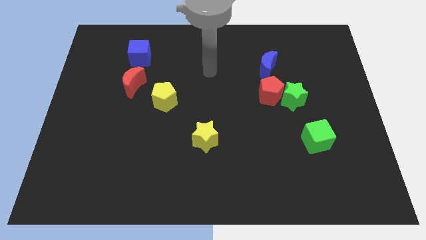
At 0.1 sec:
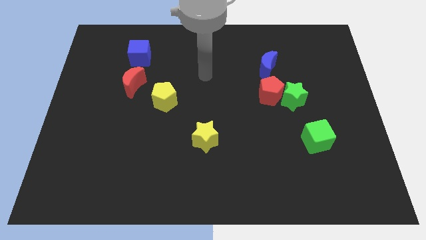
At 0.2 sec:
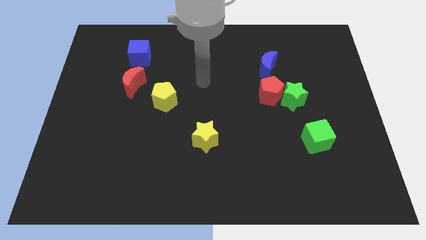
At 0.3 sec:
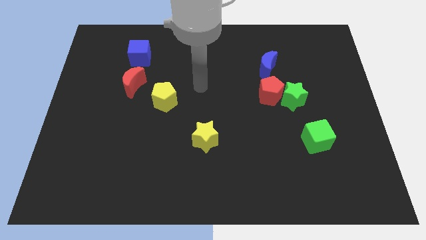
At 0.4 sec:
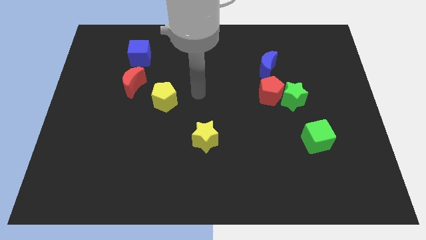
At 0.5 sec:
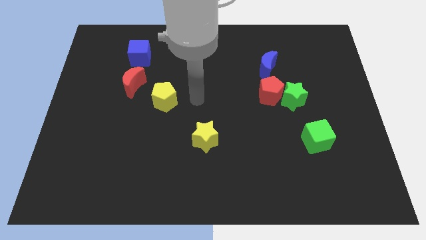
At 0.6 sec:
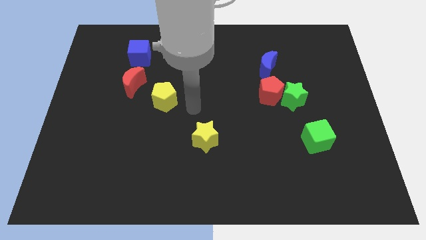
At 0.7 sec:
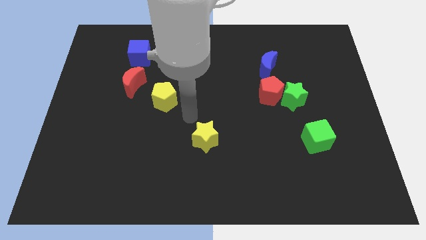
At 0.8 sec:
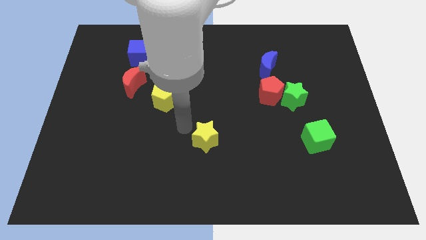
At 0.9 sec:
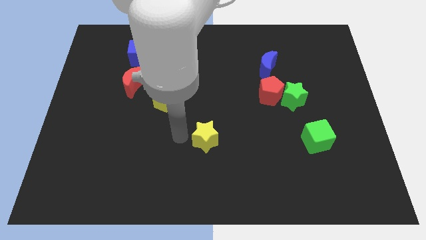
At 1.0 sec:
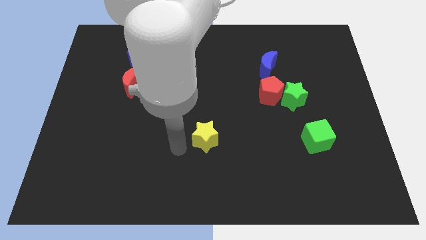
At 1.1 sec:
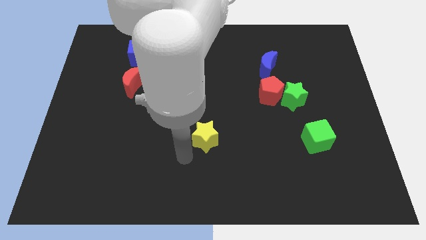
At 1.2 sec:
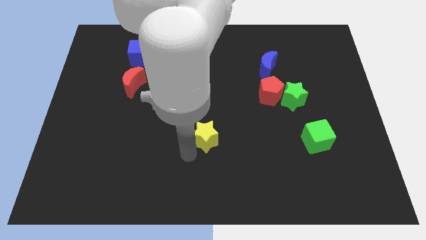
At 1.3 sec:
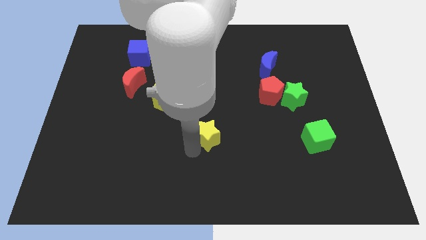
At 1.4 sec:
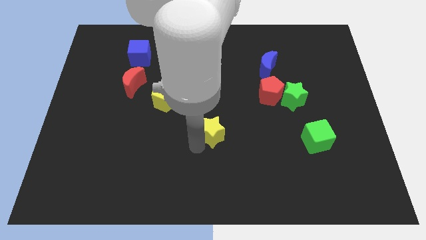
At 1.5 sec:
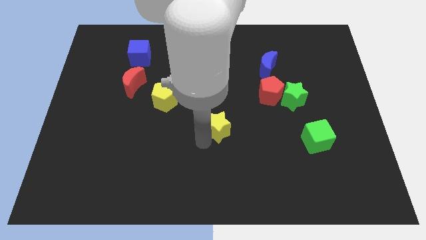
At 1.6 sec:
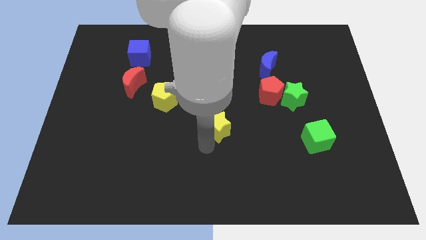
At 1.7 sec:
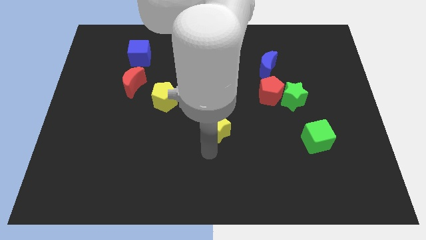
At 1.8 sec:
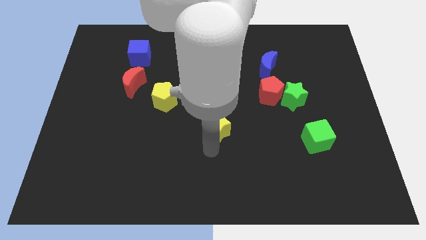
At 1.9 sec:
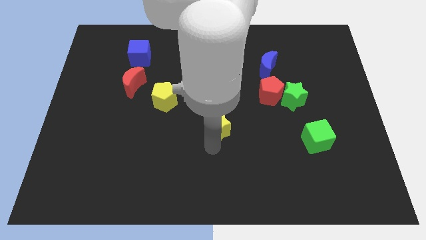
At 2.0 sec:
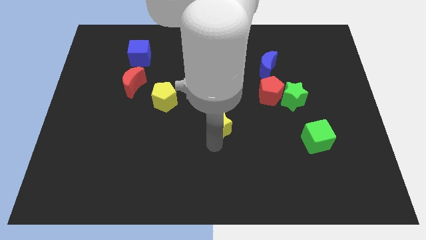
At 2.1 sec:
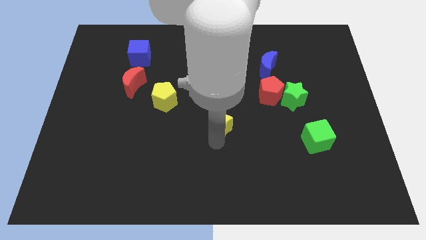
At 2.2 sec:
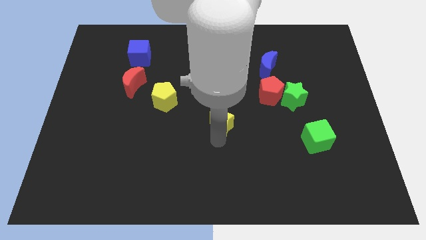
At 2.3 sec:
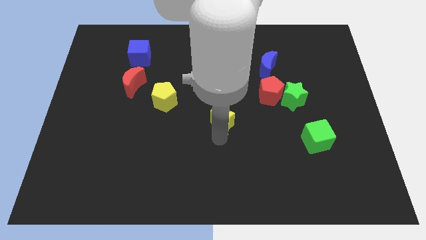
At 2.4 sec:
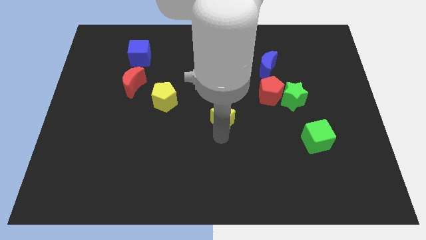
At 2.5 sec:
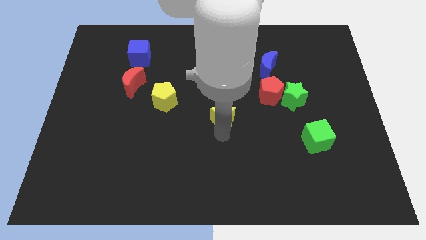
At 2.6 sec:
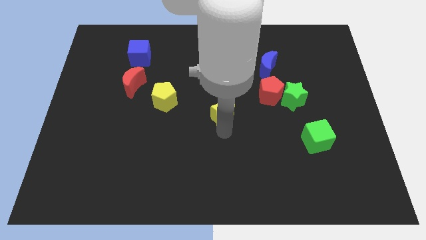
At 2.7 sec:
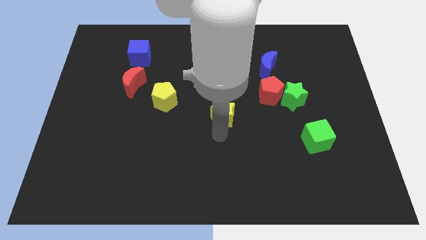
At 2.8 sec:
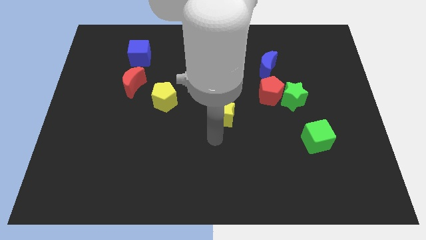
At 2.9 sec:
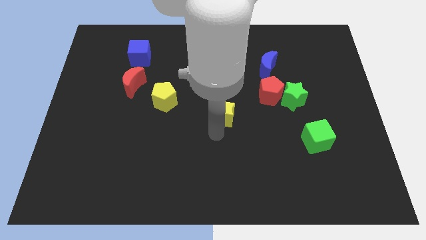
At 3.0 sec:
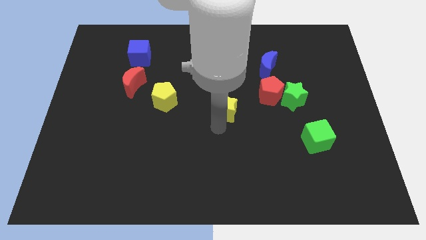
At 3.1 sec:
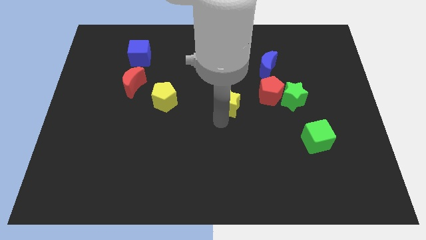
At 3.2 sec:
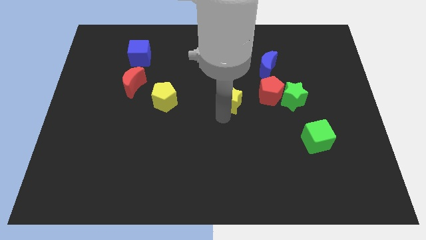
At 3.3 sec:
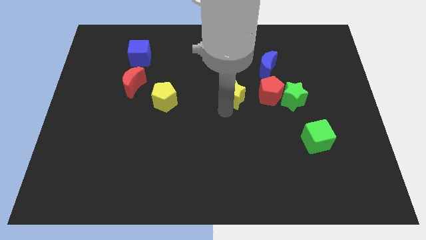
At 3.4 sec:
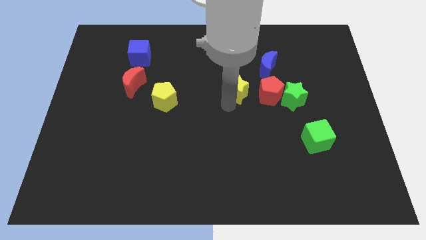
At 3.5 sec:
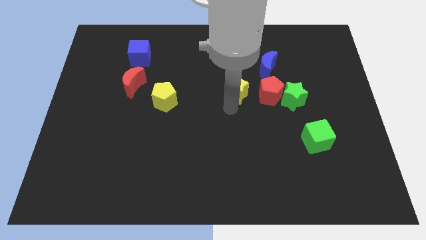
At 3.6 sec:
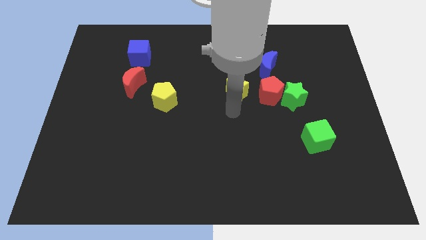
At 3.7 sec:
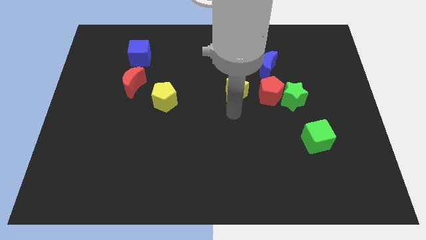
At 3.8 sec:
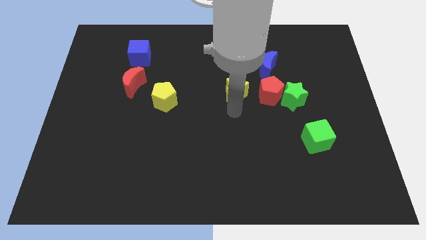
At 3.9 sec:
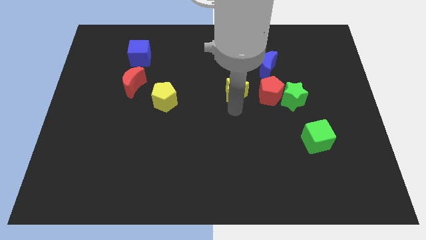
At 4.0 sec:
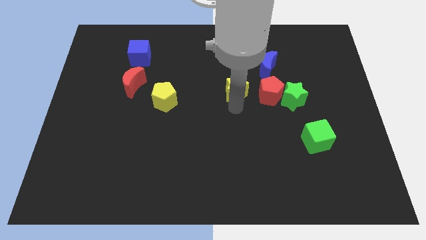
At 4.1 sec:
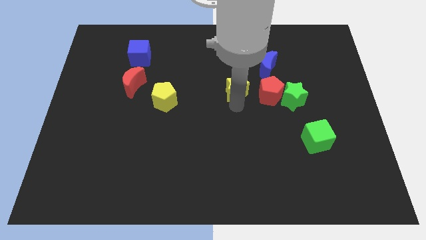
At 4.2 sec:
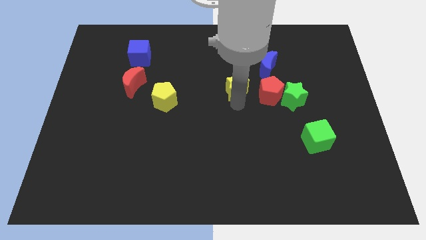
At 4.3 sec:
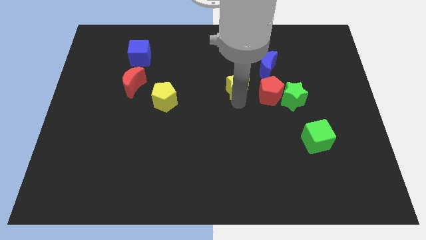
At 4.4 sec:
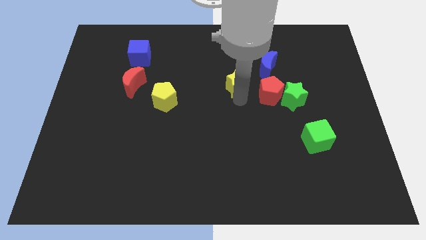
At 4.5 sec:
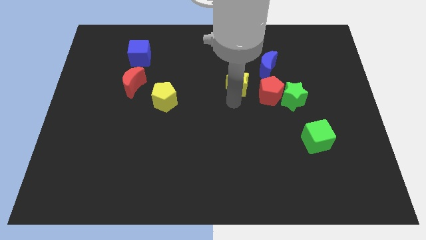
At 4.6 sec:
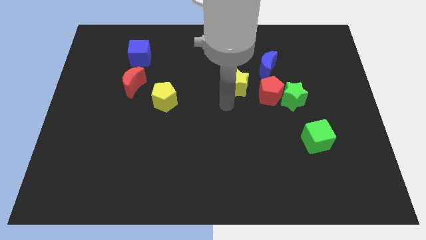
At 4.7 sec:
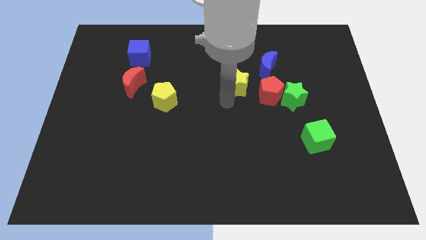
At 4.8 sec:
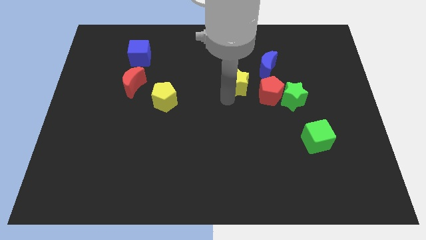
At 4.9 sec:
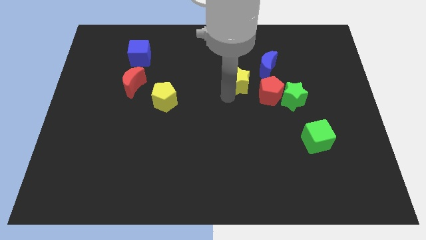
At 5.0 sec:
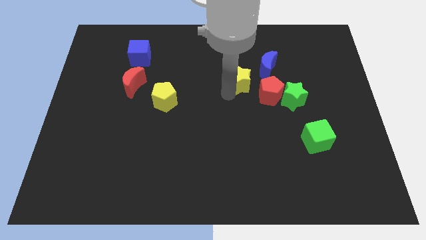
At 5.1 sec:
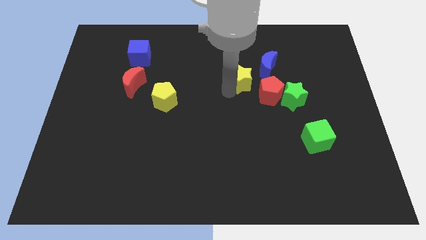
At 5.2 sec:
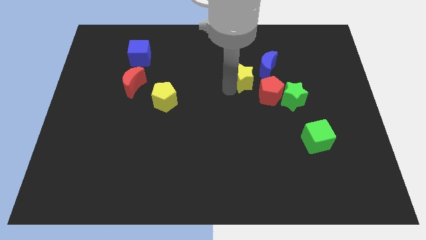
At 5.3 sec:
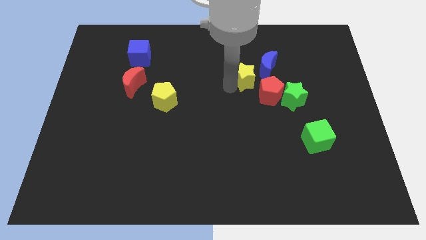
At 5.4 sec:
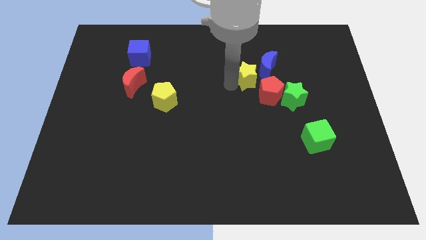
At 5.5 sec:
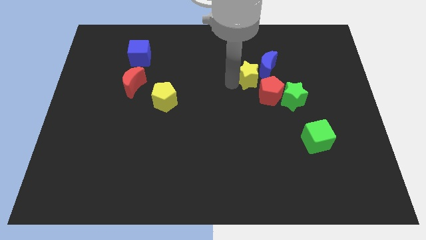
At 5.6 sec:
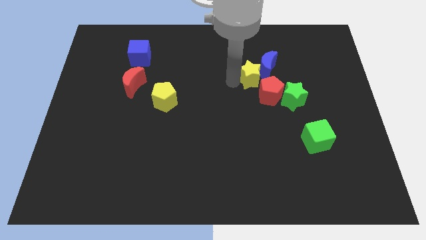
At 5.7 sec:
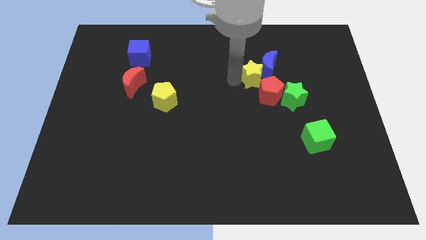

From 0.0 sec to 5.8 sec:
slide the yellow star upwards and then to the right

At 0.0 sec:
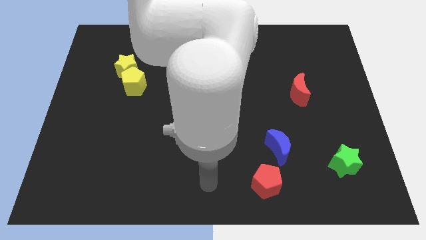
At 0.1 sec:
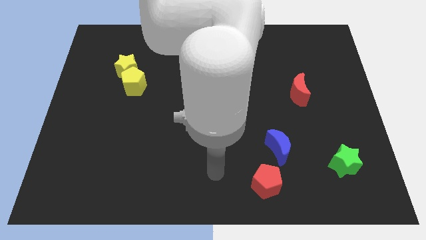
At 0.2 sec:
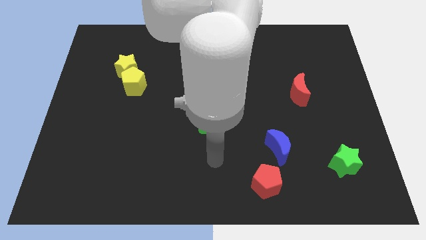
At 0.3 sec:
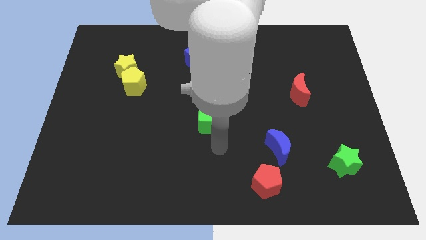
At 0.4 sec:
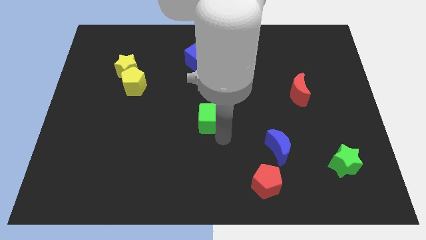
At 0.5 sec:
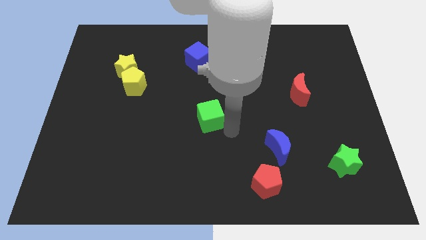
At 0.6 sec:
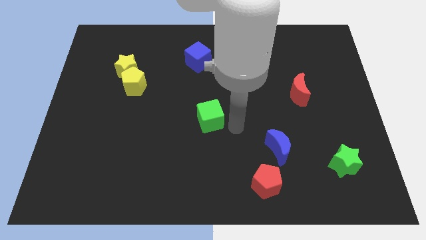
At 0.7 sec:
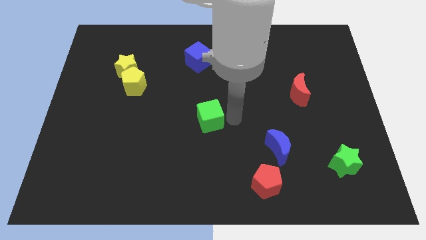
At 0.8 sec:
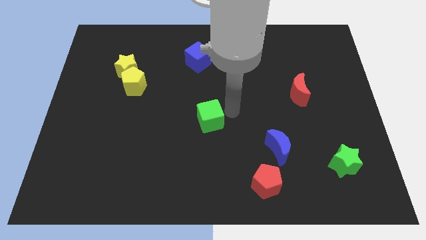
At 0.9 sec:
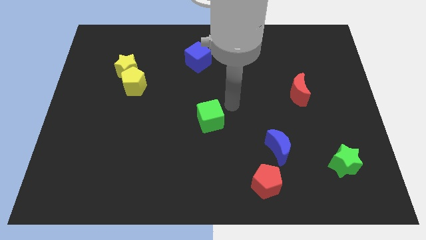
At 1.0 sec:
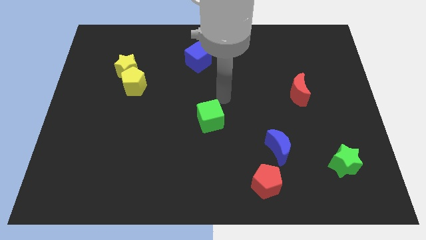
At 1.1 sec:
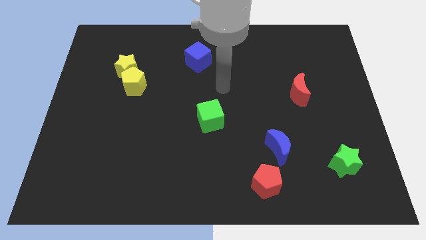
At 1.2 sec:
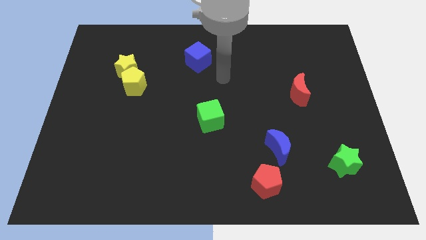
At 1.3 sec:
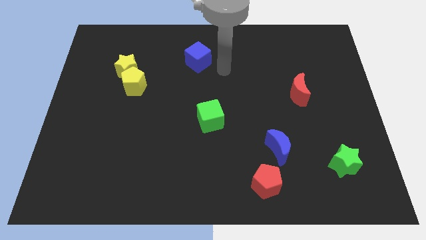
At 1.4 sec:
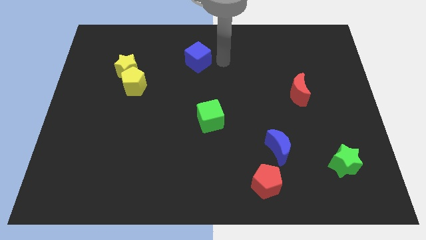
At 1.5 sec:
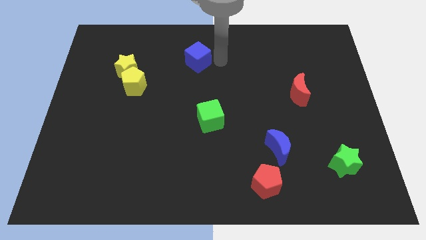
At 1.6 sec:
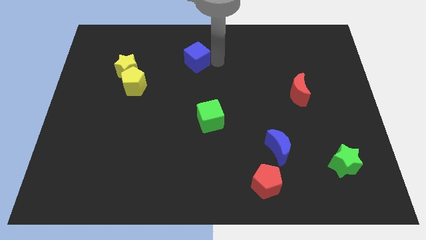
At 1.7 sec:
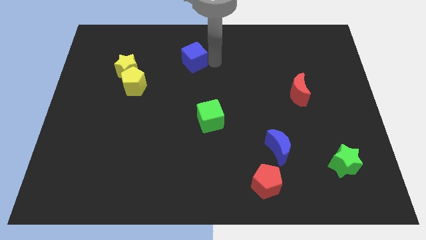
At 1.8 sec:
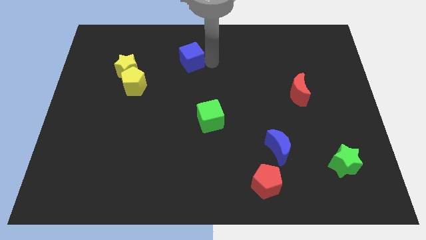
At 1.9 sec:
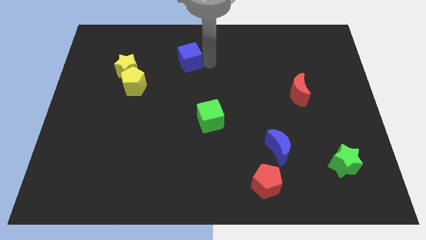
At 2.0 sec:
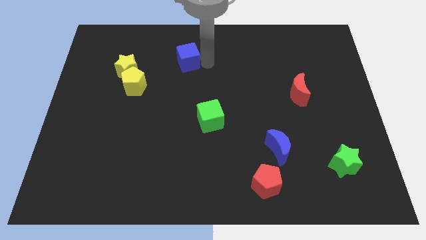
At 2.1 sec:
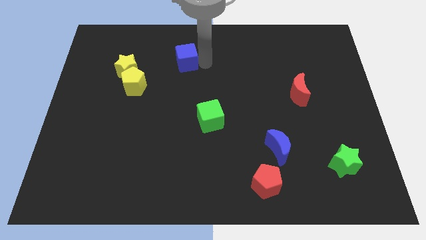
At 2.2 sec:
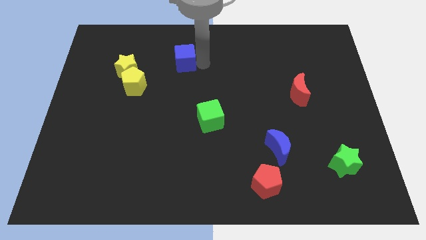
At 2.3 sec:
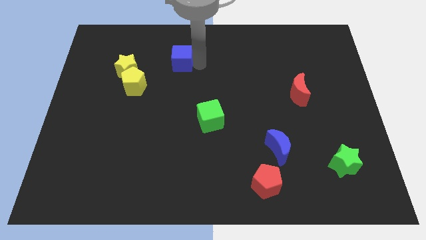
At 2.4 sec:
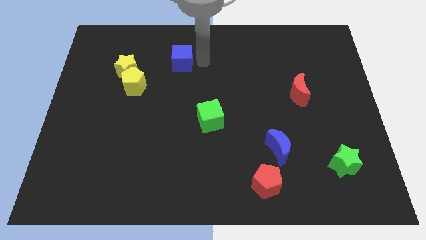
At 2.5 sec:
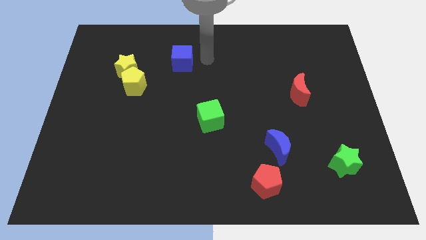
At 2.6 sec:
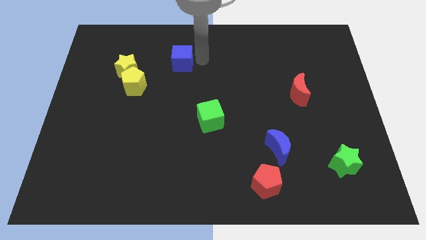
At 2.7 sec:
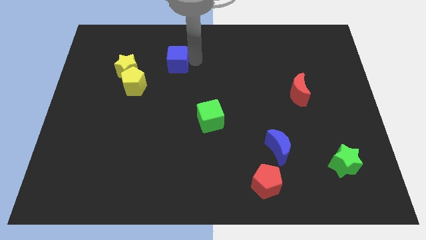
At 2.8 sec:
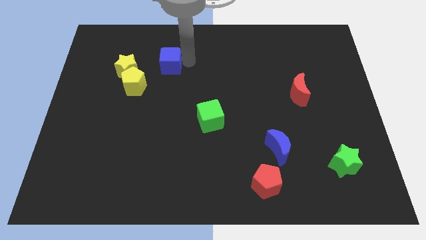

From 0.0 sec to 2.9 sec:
push the blue cube a little to the left
